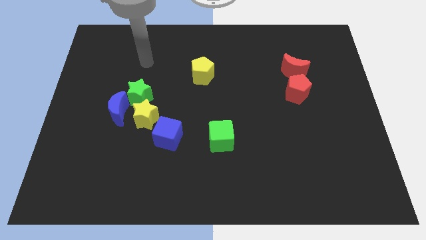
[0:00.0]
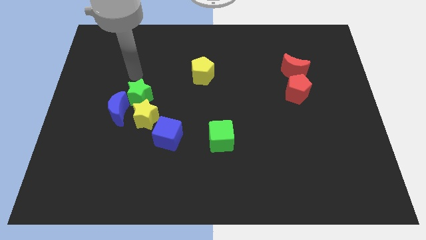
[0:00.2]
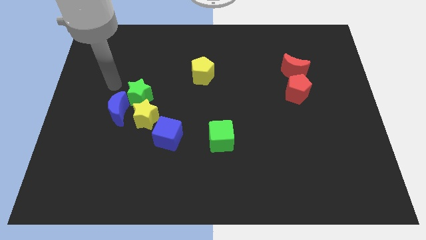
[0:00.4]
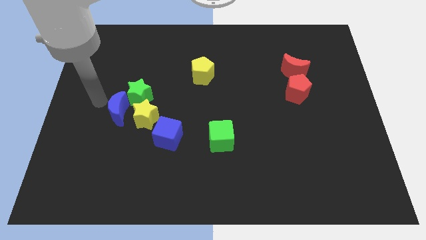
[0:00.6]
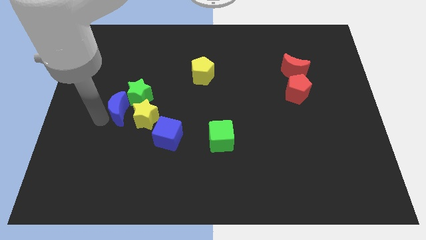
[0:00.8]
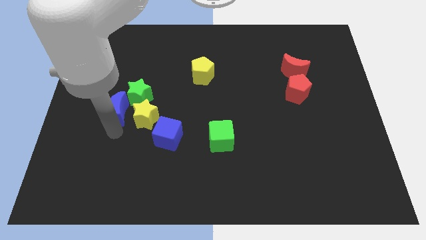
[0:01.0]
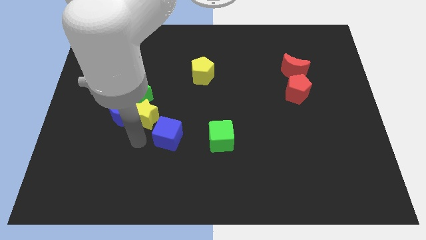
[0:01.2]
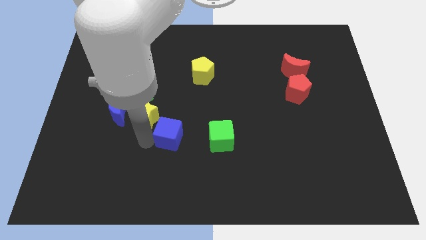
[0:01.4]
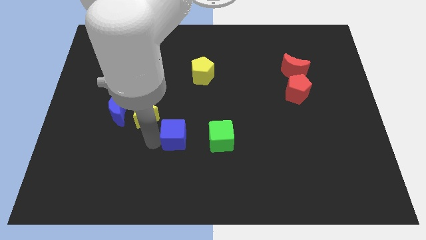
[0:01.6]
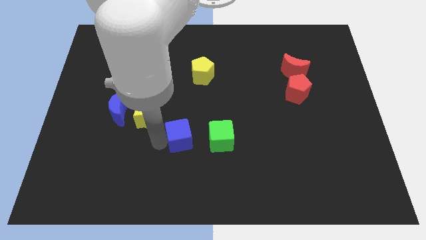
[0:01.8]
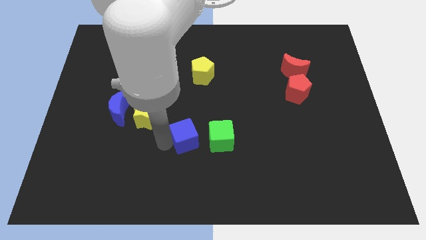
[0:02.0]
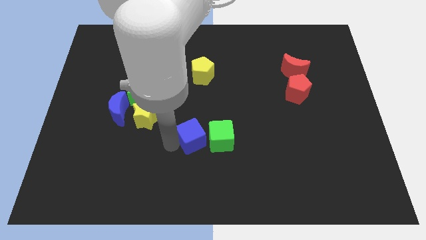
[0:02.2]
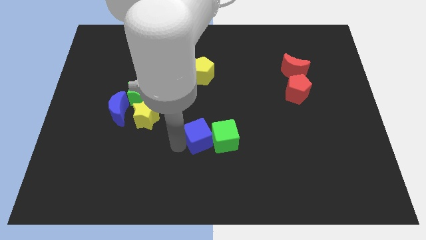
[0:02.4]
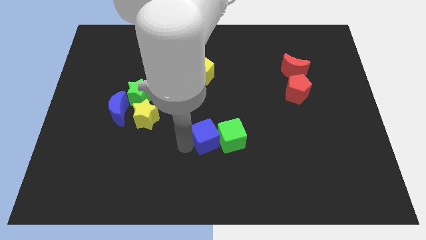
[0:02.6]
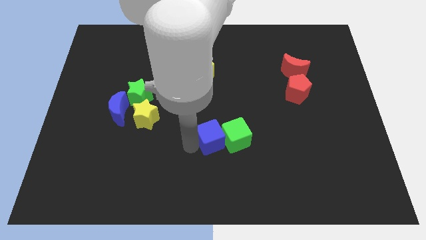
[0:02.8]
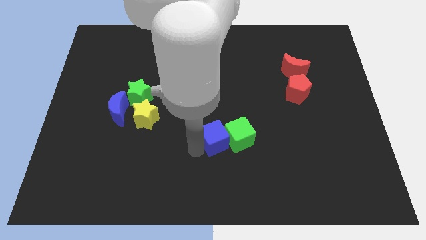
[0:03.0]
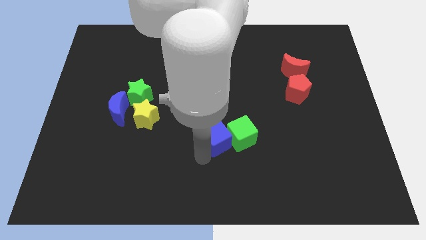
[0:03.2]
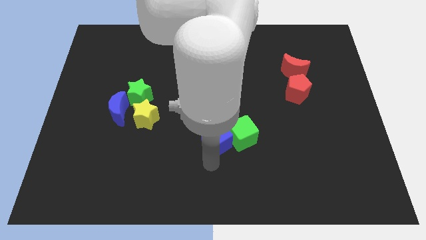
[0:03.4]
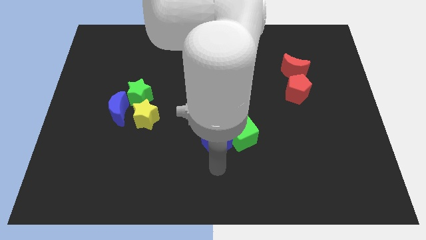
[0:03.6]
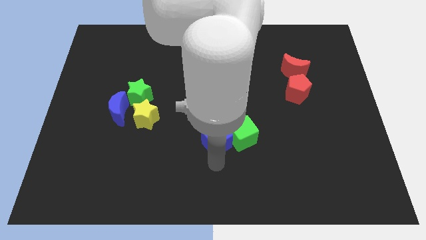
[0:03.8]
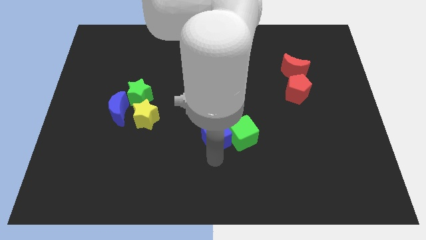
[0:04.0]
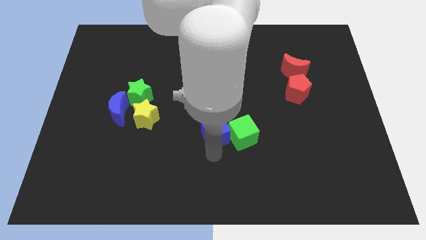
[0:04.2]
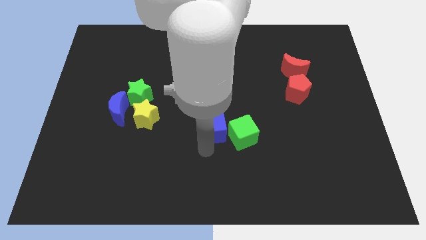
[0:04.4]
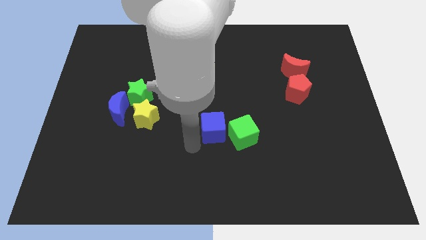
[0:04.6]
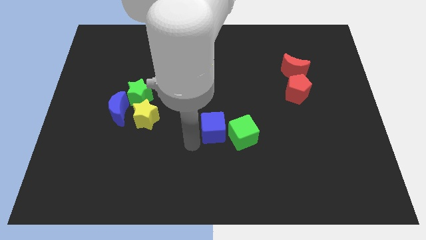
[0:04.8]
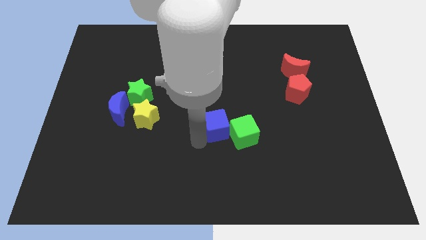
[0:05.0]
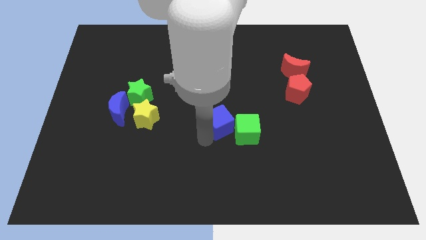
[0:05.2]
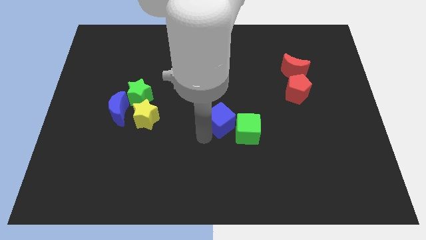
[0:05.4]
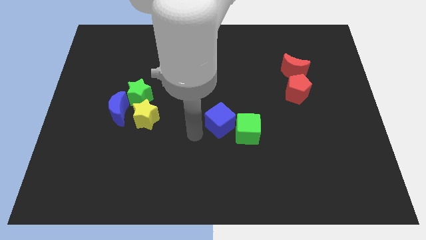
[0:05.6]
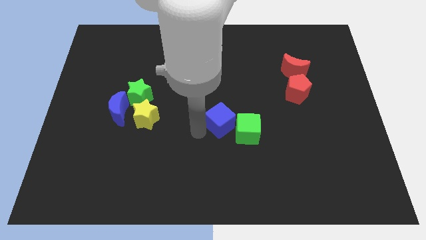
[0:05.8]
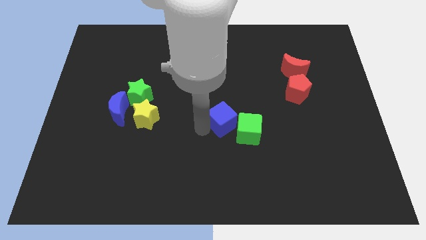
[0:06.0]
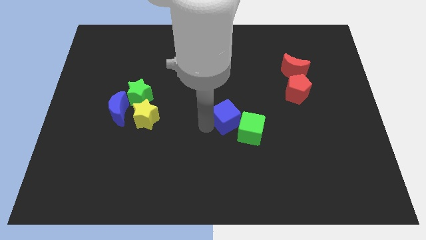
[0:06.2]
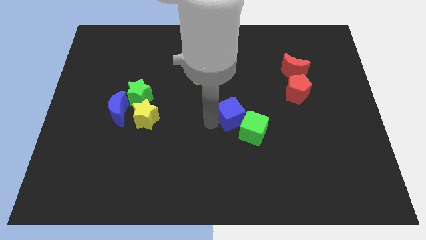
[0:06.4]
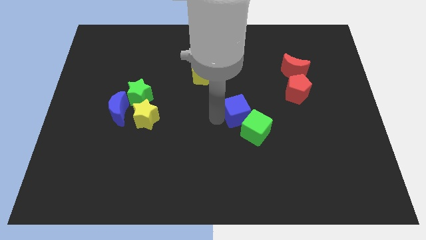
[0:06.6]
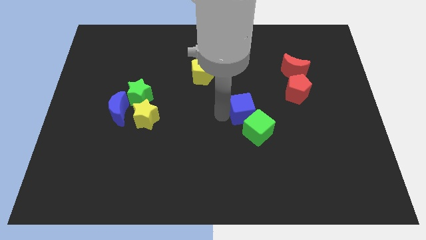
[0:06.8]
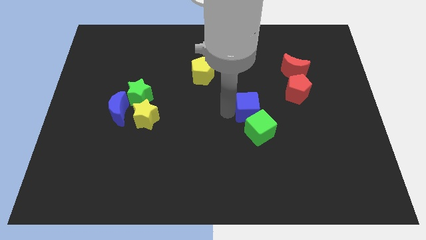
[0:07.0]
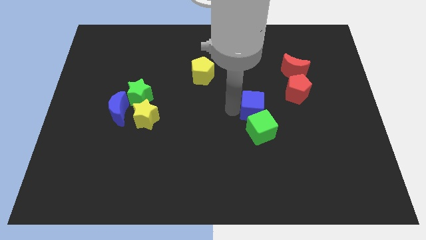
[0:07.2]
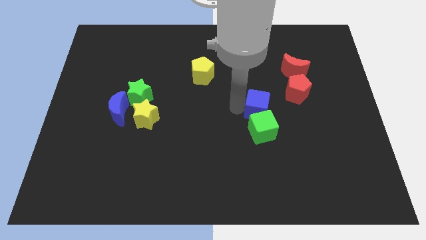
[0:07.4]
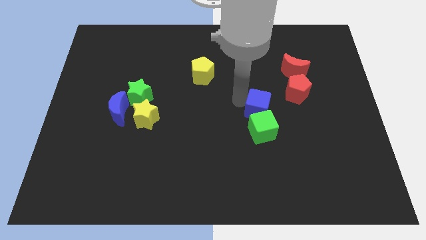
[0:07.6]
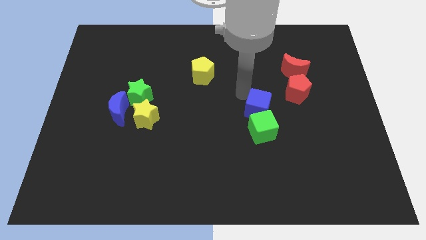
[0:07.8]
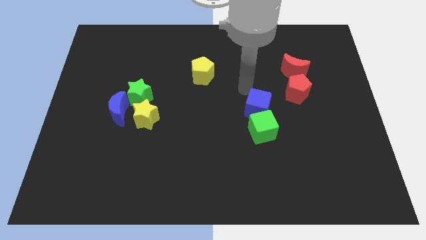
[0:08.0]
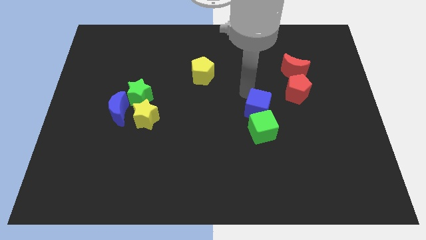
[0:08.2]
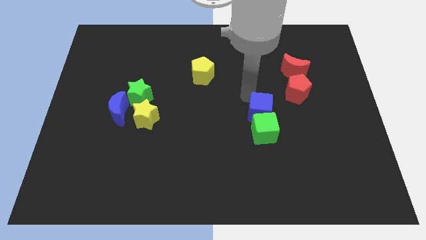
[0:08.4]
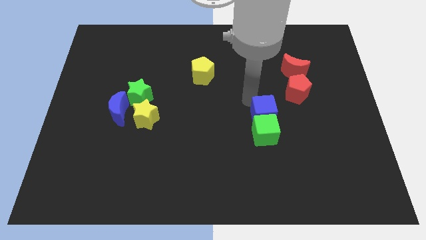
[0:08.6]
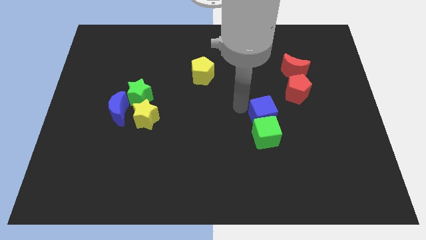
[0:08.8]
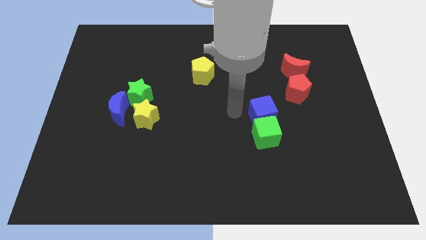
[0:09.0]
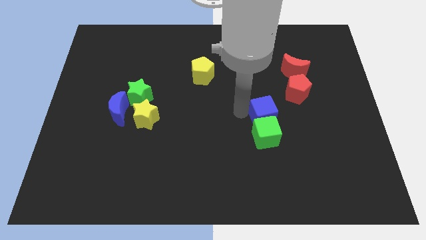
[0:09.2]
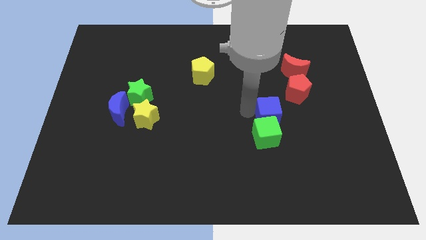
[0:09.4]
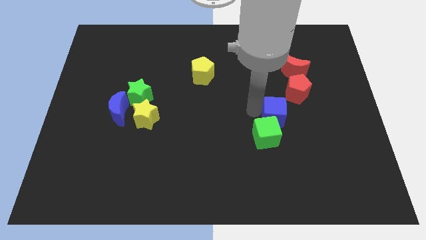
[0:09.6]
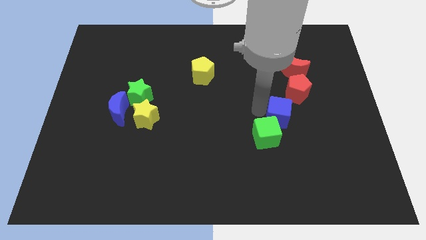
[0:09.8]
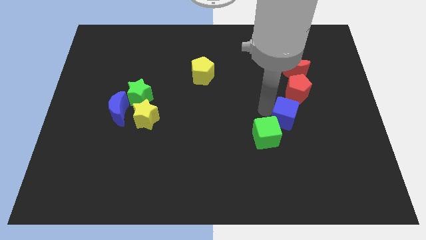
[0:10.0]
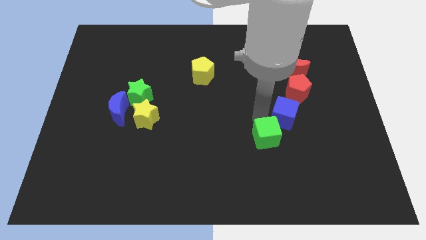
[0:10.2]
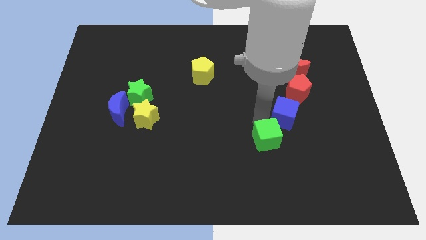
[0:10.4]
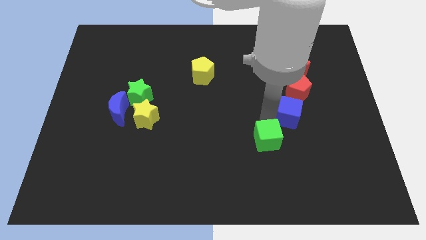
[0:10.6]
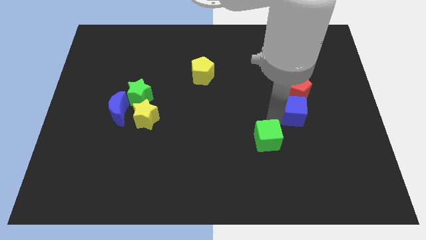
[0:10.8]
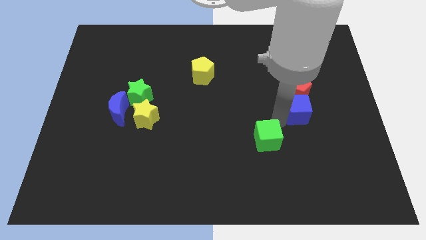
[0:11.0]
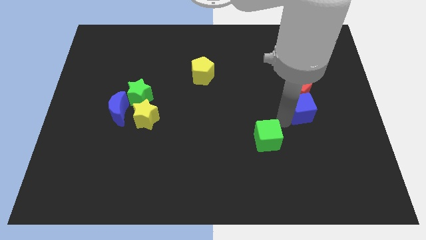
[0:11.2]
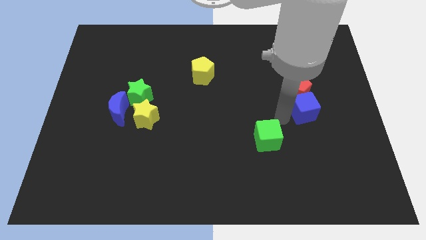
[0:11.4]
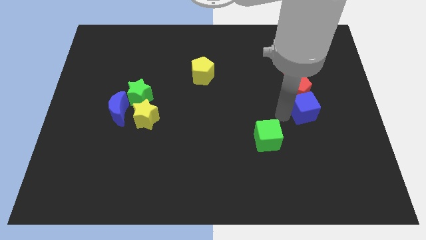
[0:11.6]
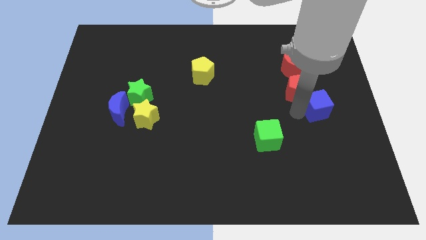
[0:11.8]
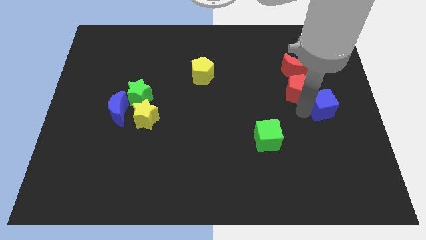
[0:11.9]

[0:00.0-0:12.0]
move the blue cube to the right side

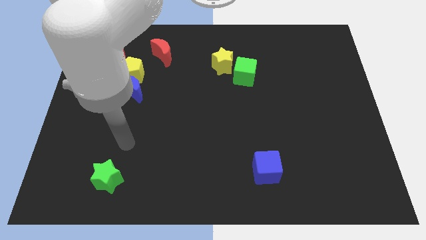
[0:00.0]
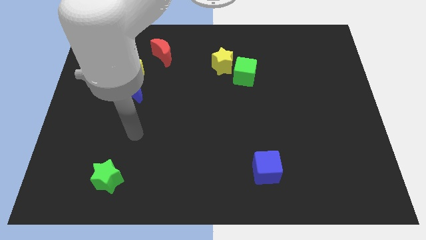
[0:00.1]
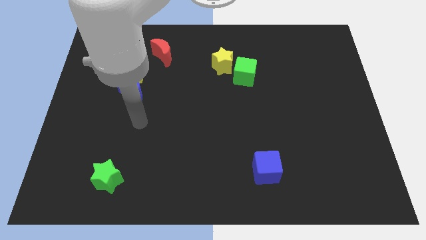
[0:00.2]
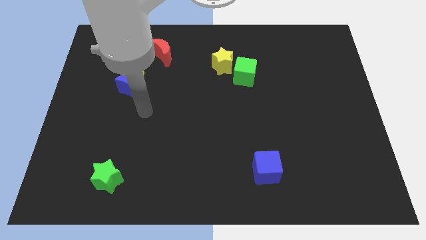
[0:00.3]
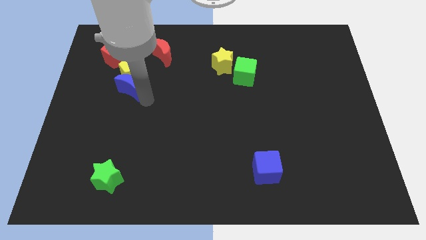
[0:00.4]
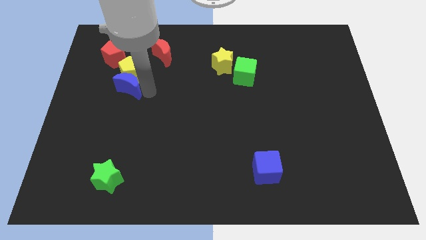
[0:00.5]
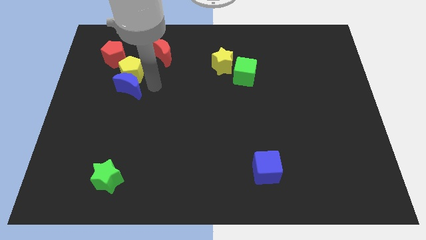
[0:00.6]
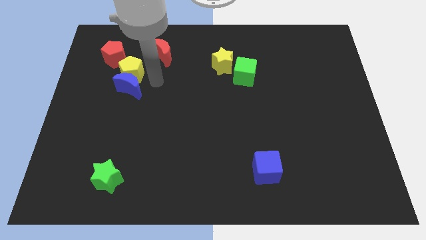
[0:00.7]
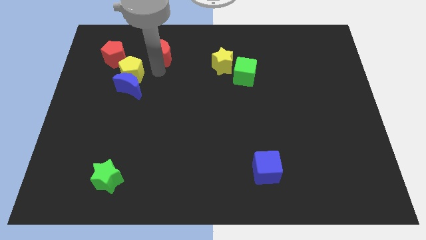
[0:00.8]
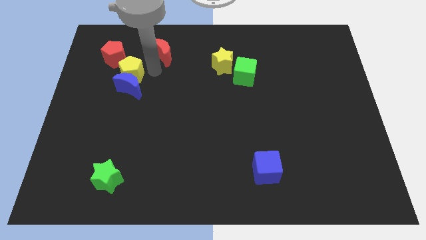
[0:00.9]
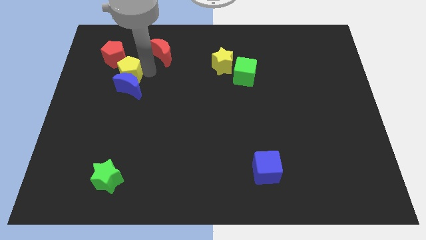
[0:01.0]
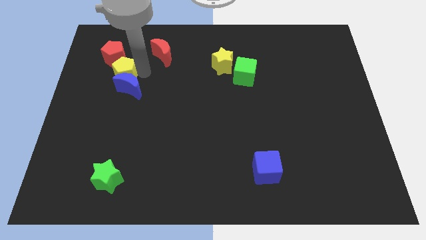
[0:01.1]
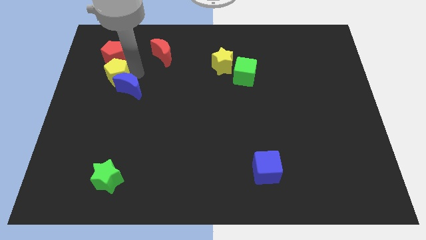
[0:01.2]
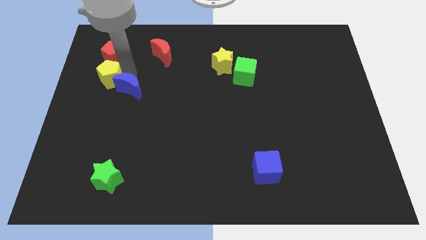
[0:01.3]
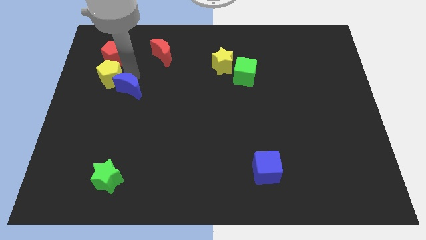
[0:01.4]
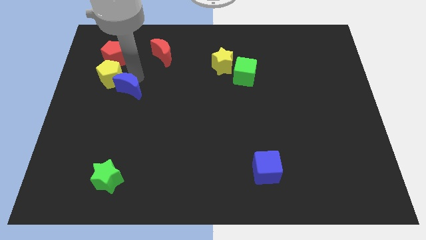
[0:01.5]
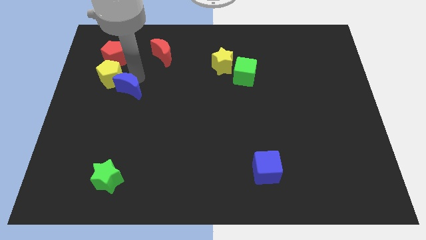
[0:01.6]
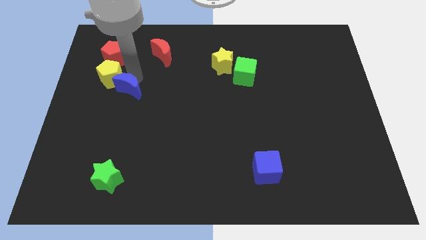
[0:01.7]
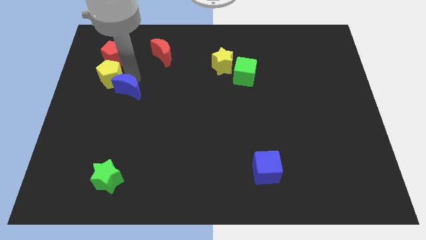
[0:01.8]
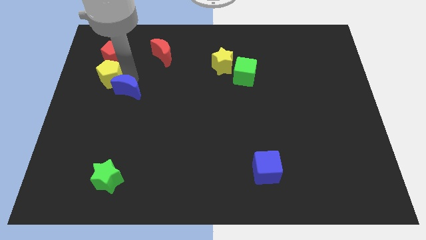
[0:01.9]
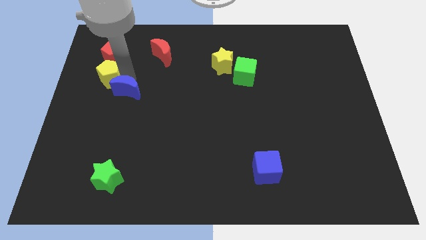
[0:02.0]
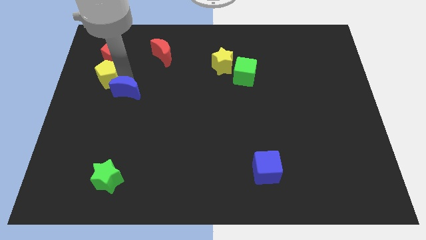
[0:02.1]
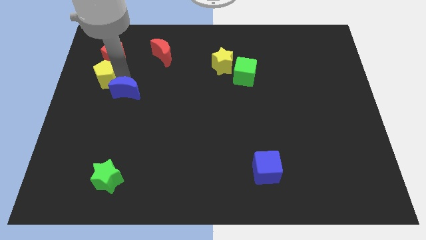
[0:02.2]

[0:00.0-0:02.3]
push the yellow pentagon to the left side of the board
